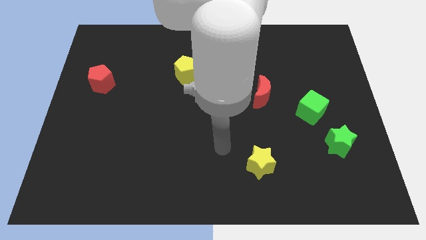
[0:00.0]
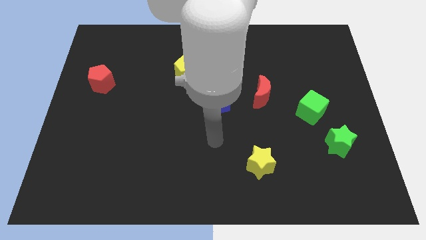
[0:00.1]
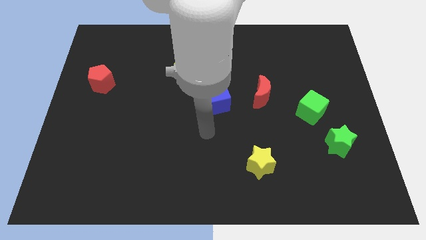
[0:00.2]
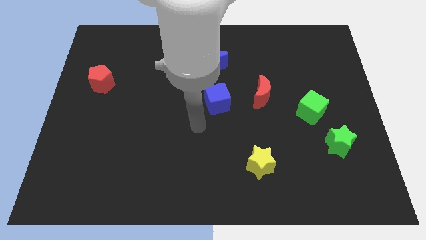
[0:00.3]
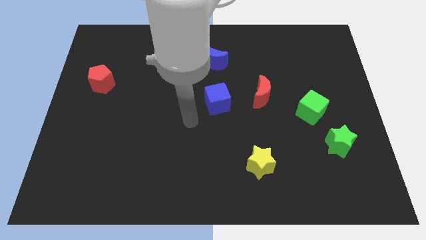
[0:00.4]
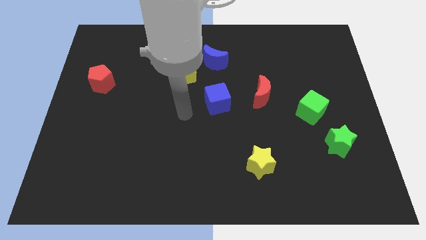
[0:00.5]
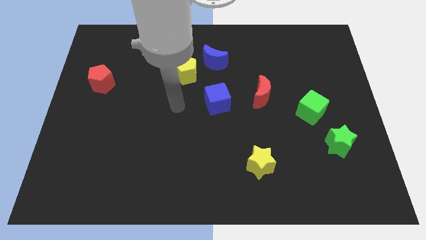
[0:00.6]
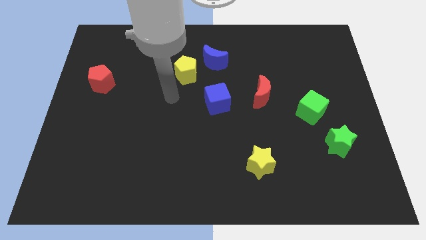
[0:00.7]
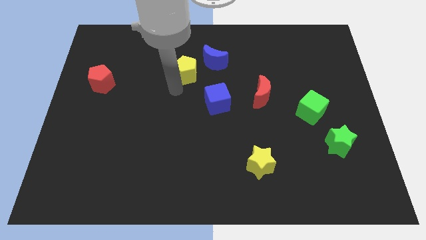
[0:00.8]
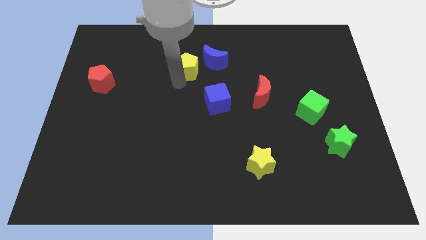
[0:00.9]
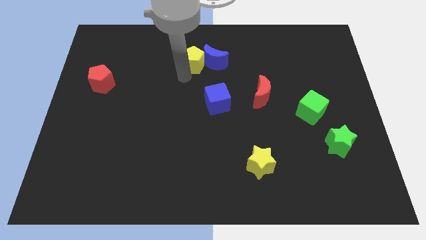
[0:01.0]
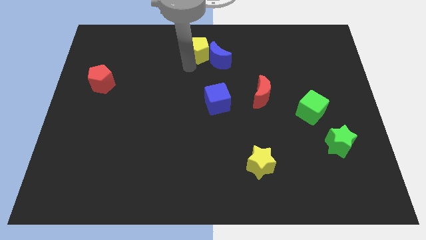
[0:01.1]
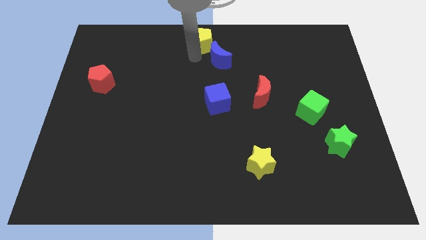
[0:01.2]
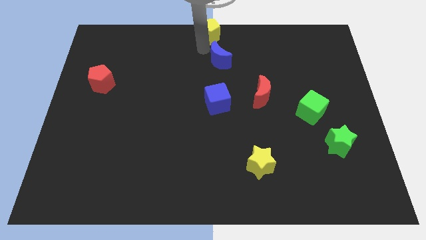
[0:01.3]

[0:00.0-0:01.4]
move the blue moon away from the yellow pentagon

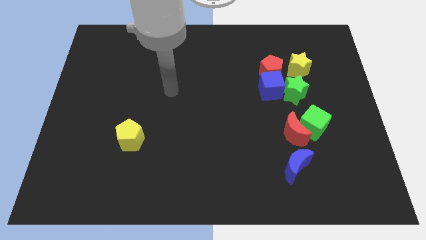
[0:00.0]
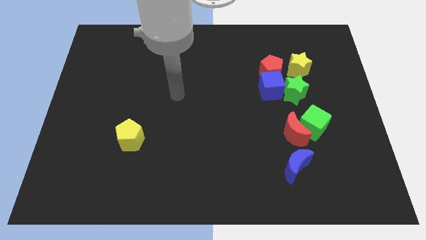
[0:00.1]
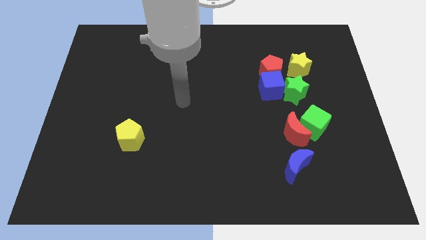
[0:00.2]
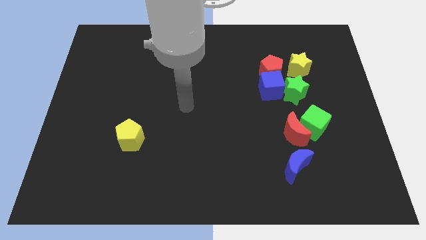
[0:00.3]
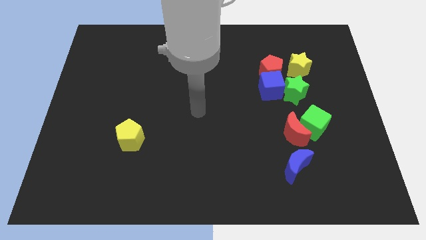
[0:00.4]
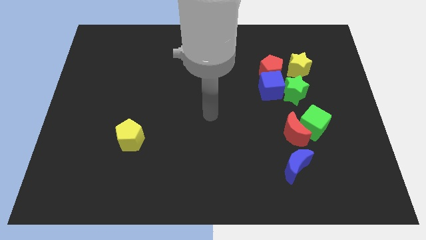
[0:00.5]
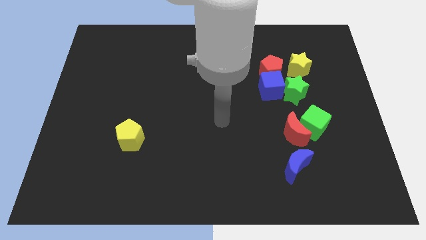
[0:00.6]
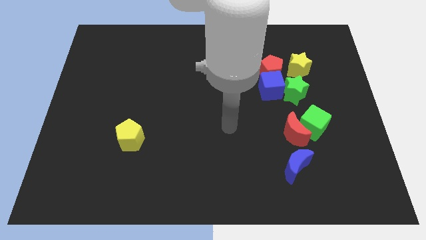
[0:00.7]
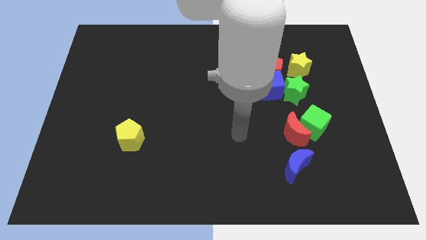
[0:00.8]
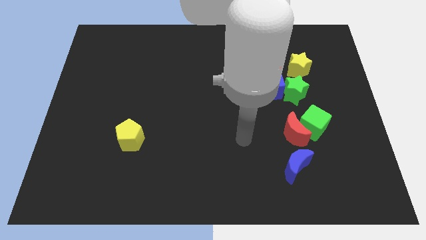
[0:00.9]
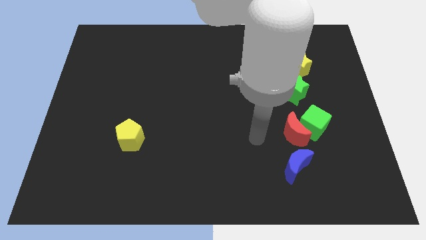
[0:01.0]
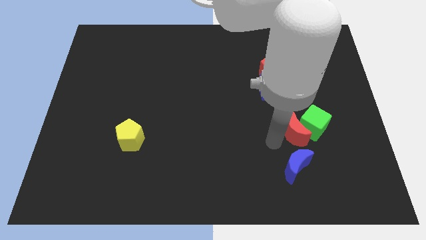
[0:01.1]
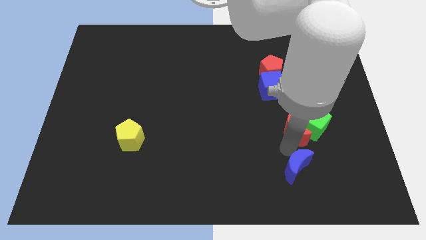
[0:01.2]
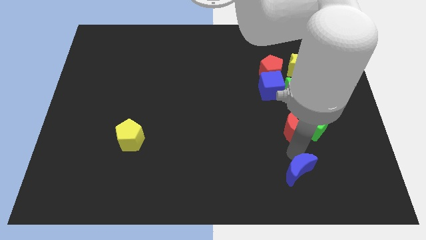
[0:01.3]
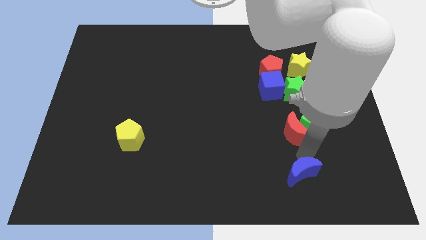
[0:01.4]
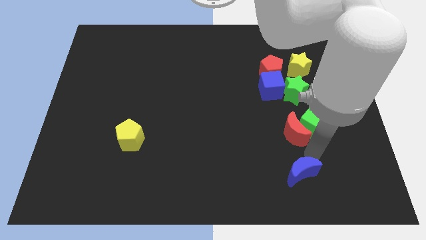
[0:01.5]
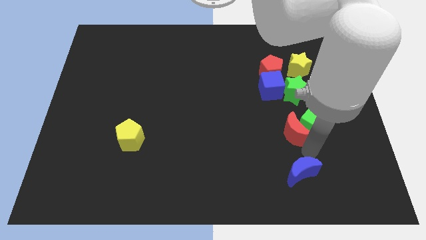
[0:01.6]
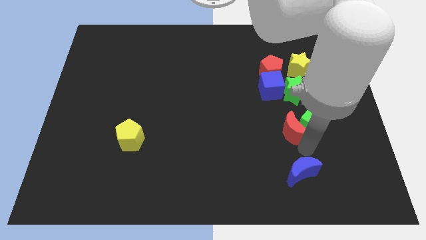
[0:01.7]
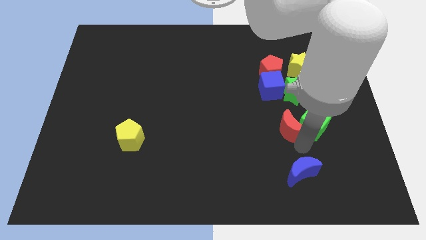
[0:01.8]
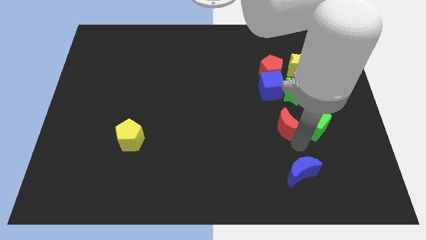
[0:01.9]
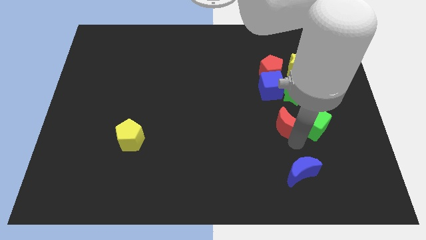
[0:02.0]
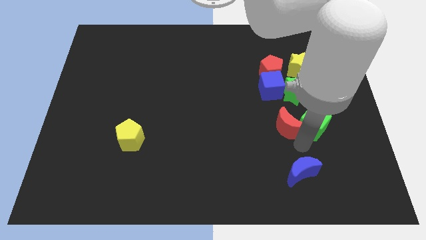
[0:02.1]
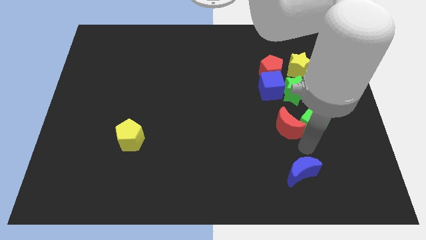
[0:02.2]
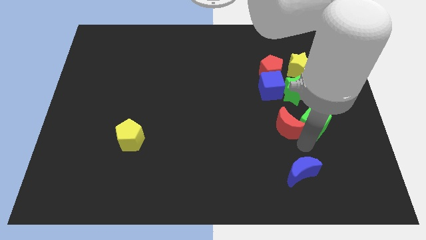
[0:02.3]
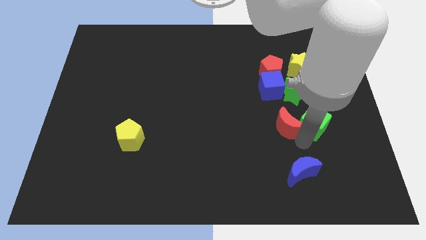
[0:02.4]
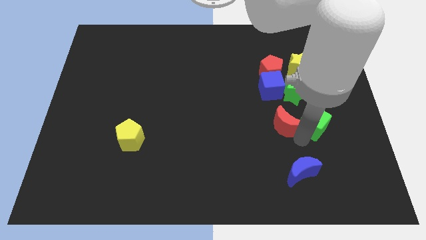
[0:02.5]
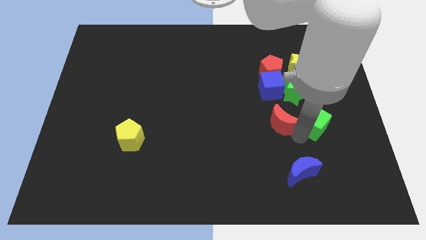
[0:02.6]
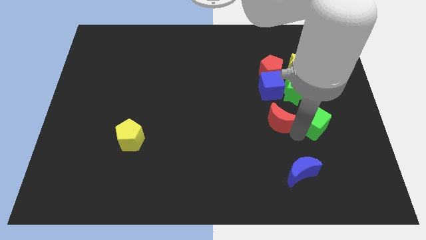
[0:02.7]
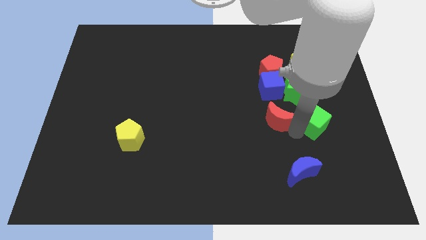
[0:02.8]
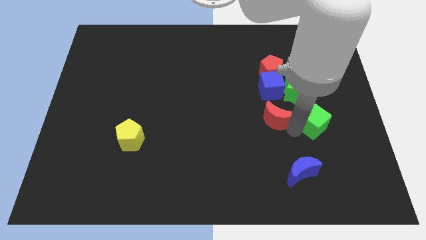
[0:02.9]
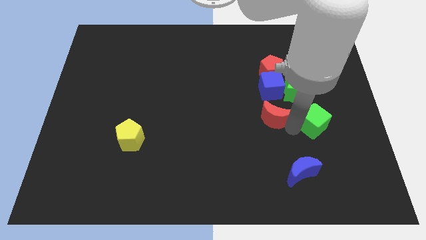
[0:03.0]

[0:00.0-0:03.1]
move the red moon away from the green cube and blue moon

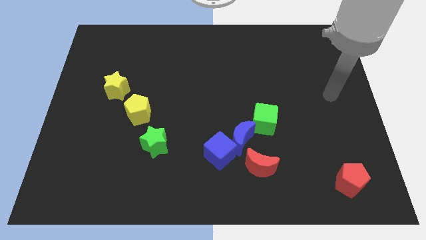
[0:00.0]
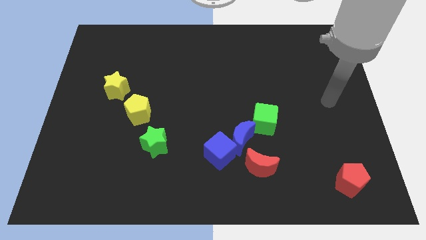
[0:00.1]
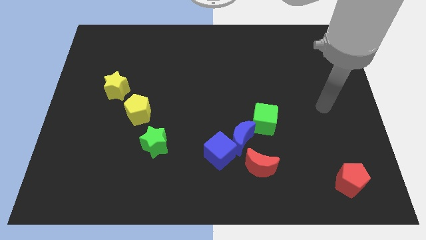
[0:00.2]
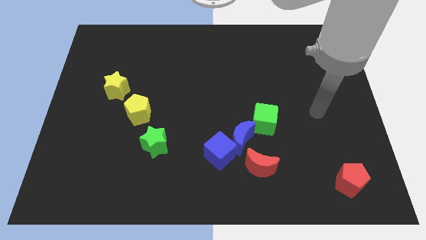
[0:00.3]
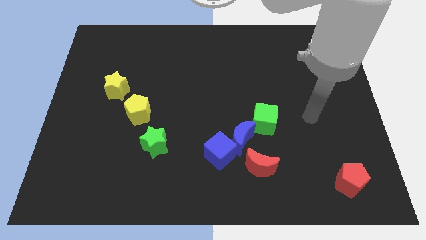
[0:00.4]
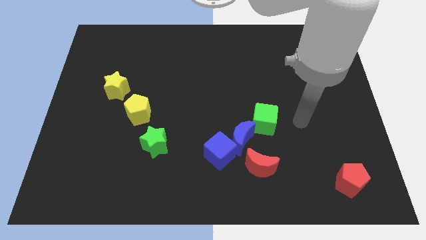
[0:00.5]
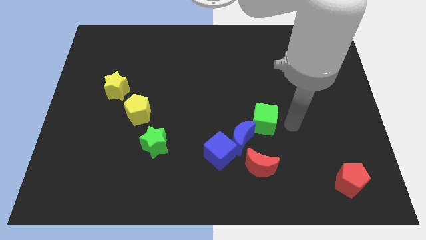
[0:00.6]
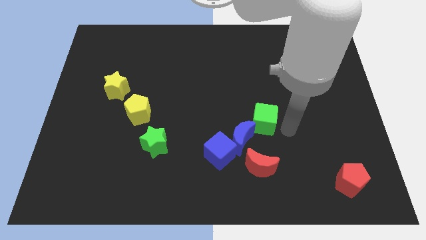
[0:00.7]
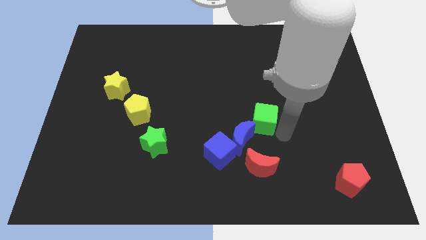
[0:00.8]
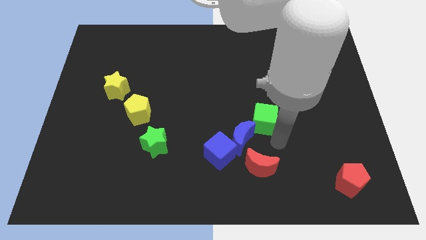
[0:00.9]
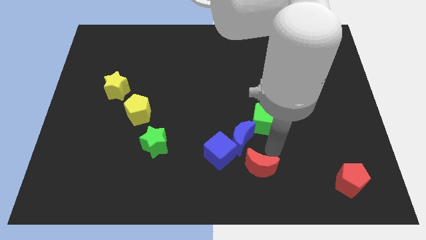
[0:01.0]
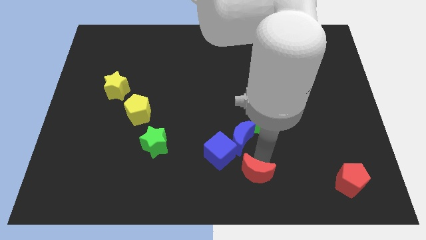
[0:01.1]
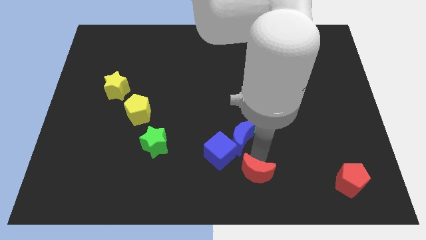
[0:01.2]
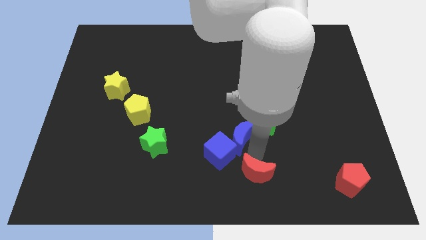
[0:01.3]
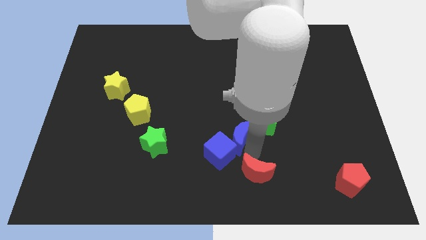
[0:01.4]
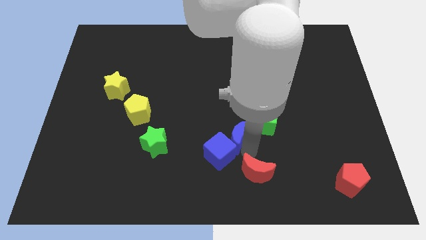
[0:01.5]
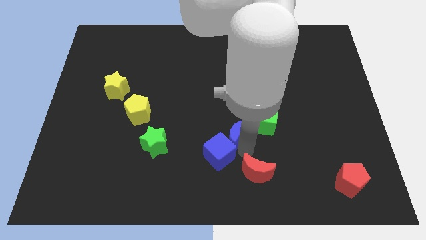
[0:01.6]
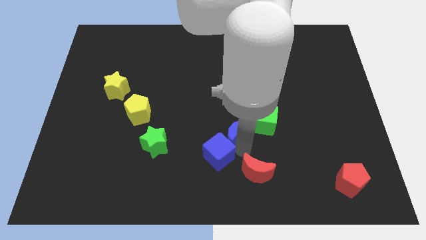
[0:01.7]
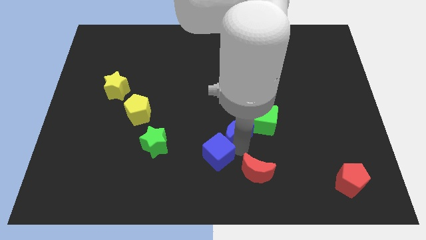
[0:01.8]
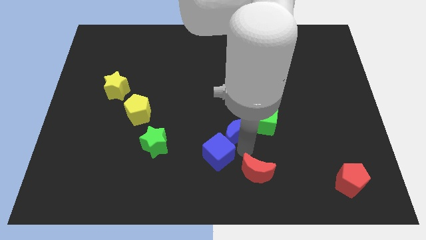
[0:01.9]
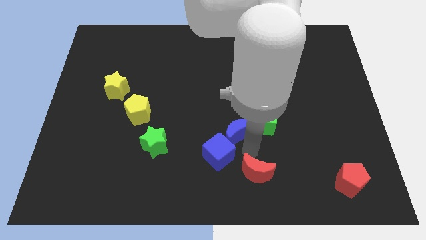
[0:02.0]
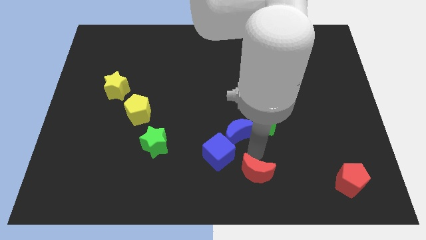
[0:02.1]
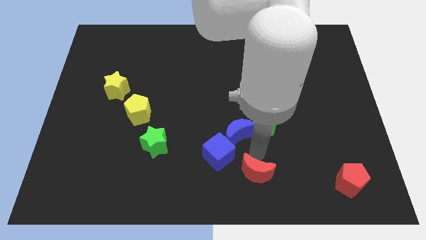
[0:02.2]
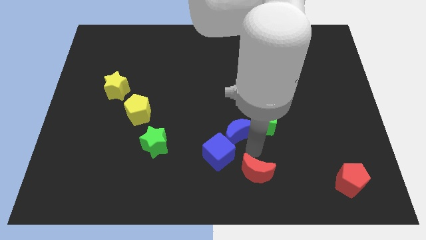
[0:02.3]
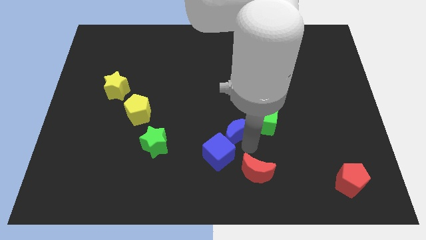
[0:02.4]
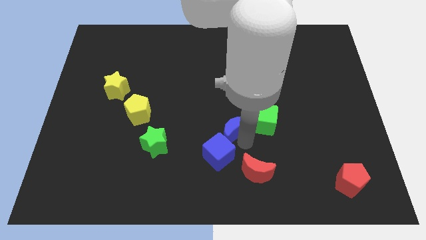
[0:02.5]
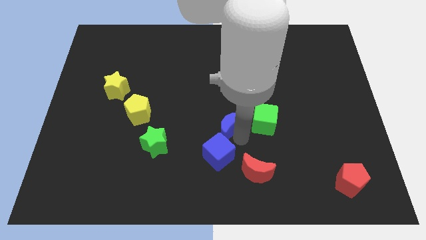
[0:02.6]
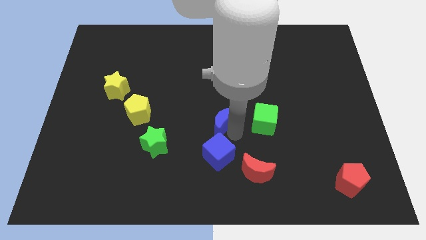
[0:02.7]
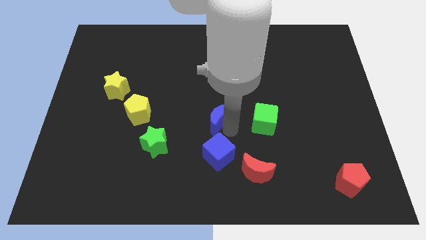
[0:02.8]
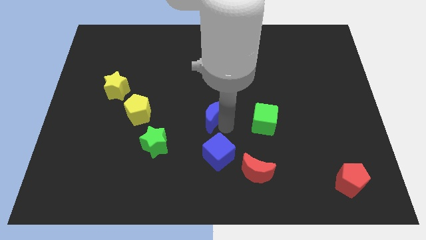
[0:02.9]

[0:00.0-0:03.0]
separate the blue moon from the blue cube, green cube, and red moon

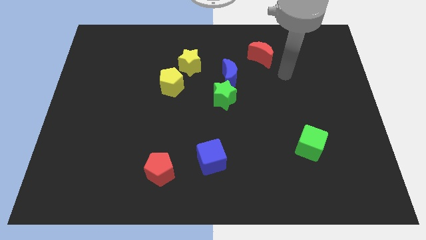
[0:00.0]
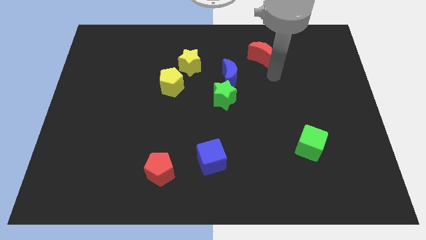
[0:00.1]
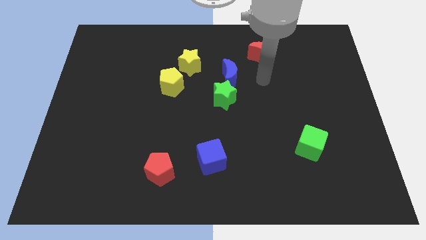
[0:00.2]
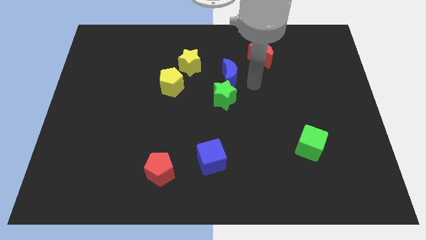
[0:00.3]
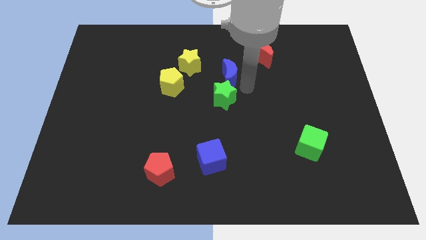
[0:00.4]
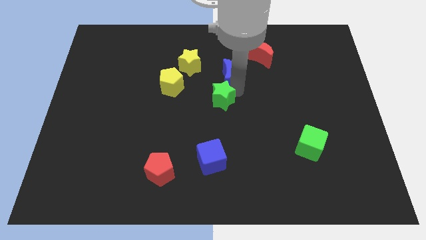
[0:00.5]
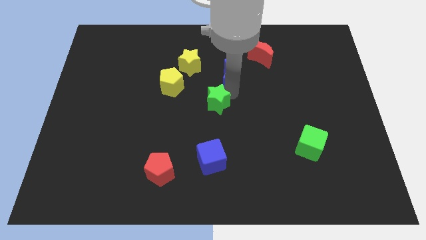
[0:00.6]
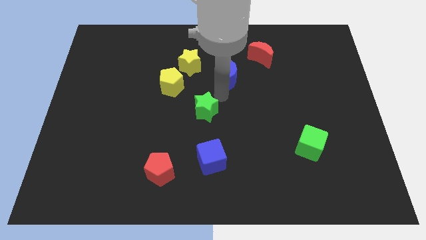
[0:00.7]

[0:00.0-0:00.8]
move the blue moon away from the green star

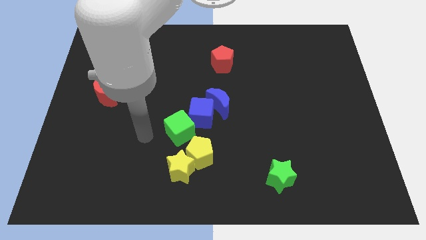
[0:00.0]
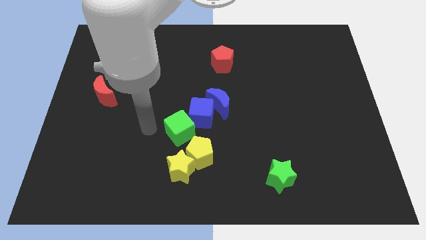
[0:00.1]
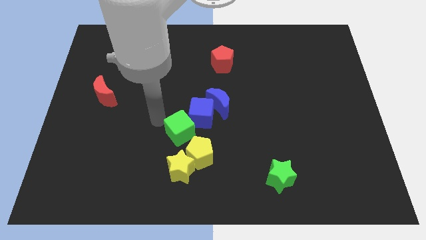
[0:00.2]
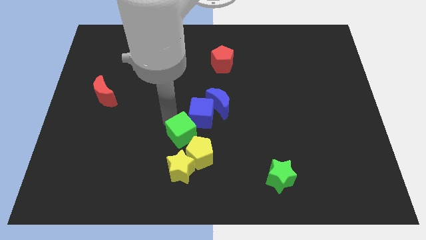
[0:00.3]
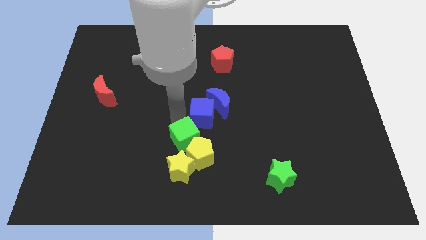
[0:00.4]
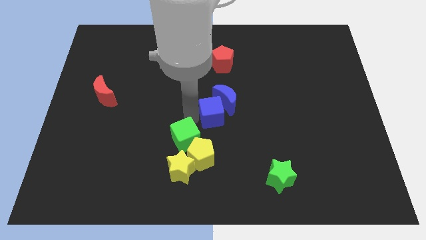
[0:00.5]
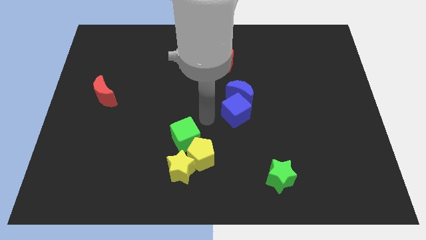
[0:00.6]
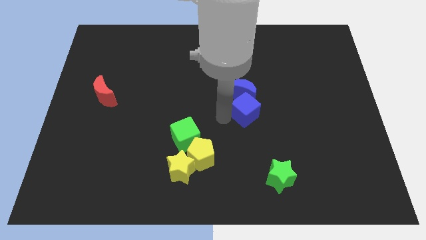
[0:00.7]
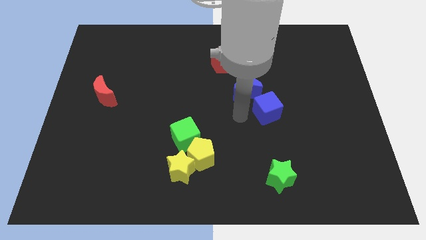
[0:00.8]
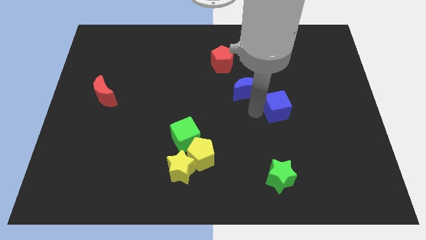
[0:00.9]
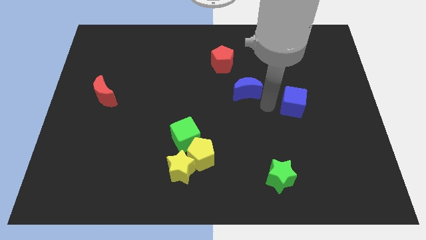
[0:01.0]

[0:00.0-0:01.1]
move the blue moon away from the blue cube

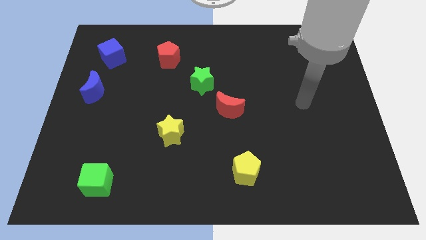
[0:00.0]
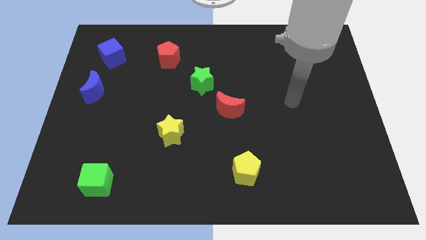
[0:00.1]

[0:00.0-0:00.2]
pull the red moon apart from the green star
